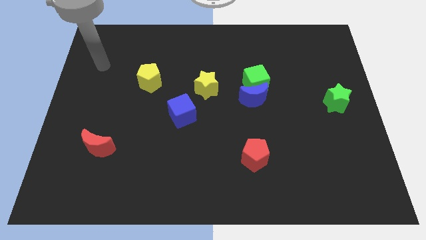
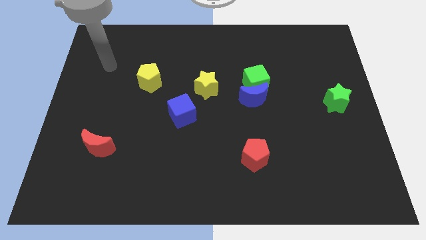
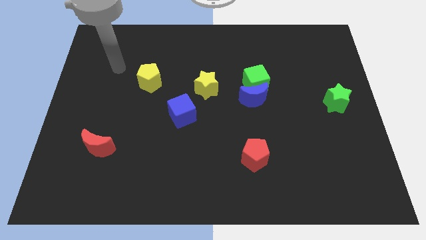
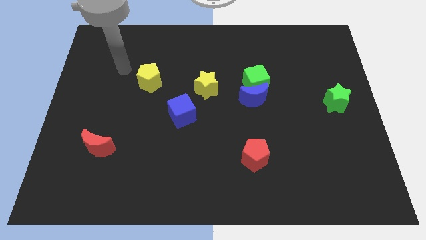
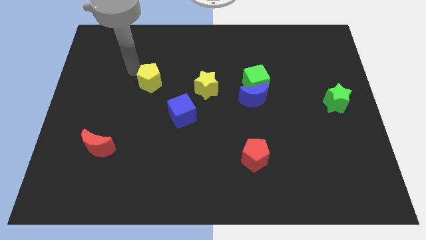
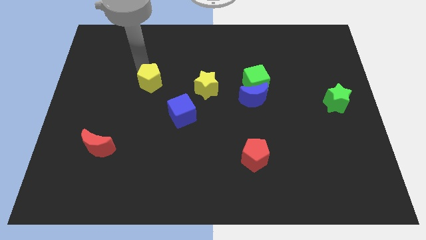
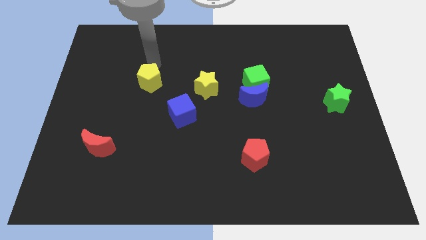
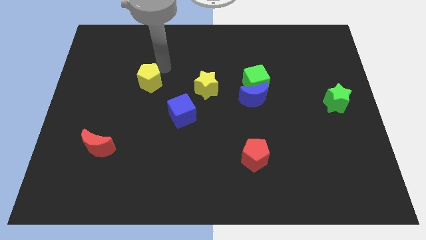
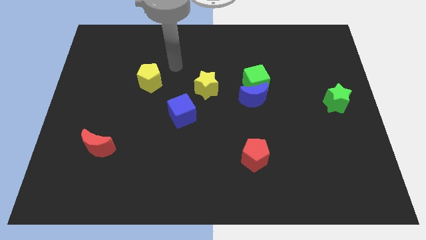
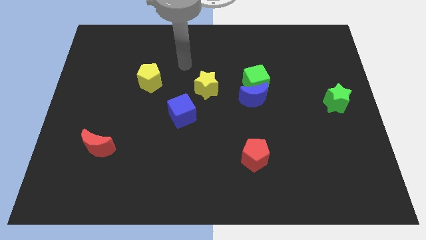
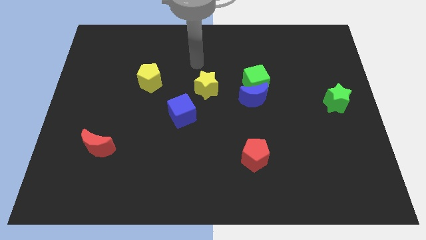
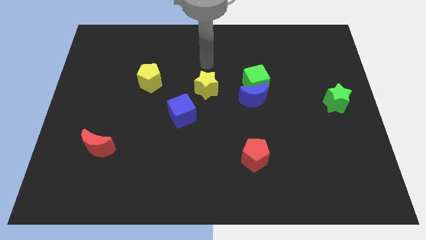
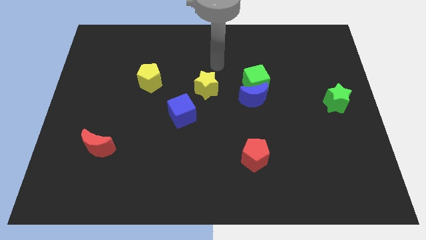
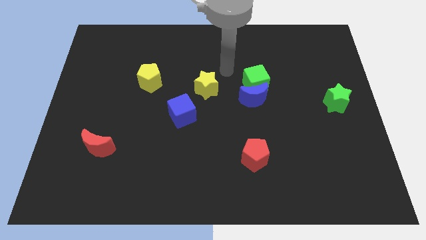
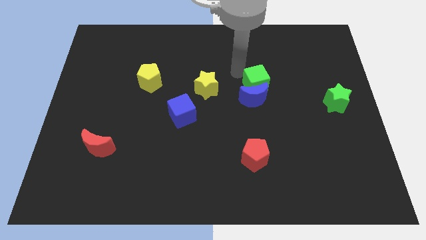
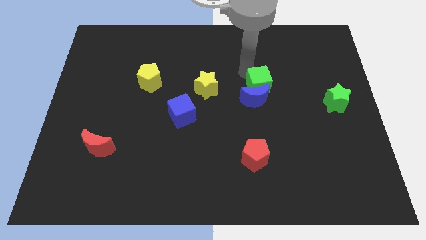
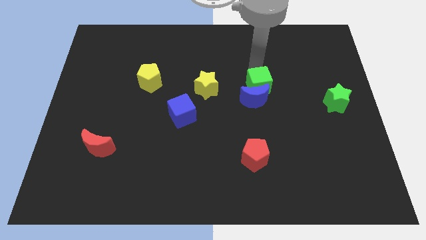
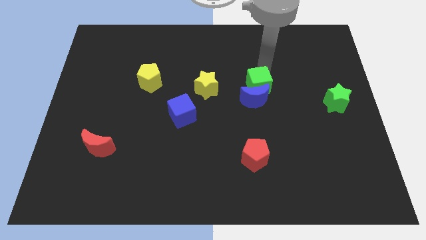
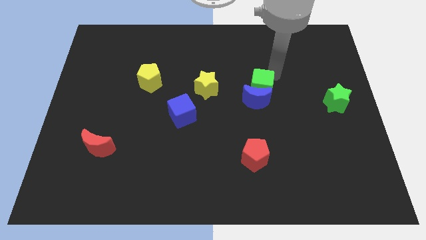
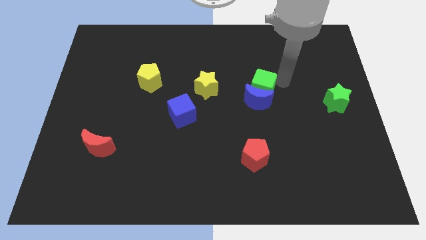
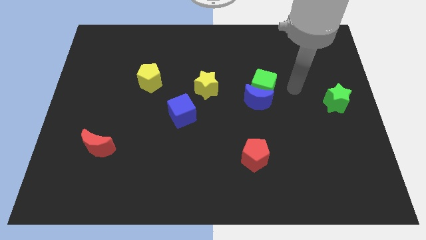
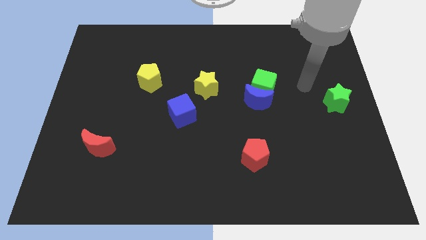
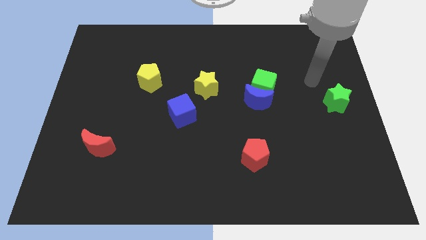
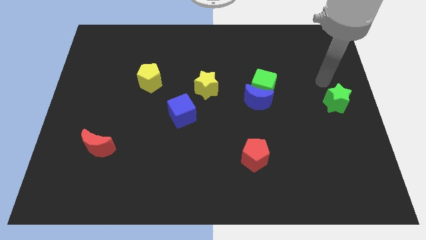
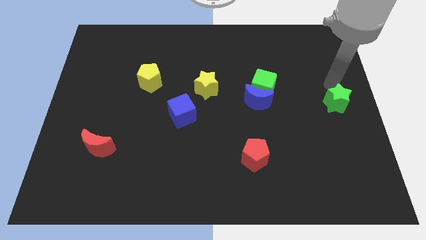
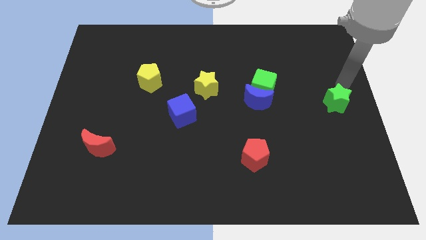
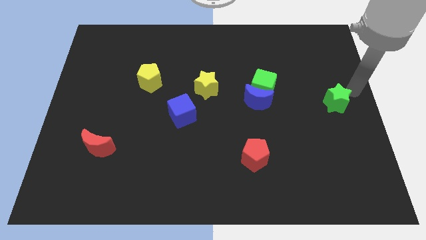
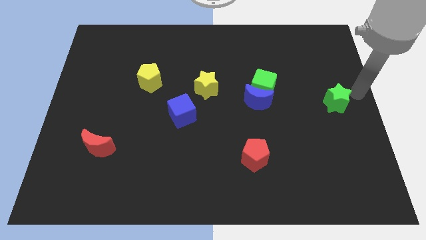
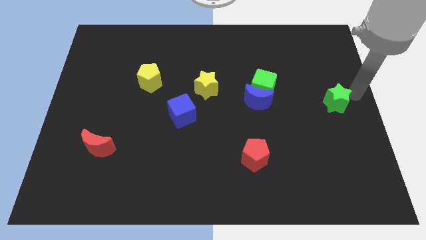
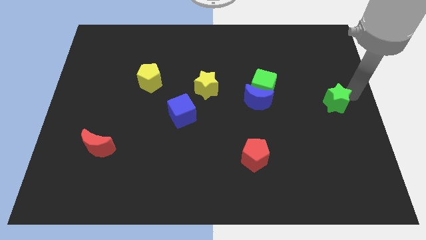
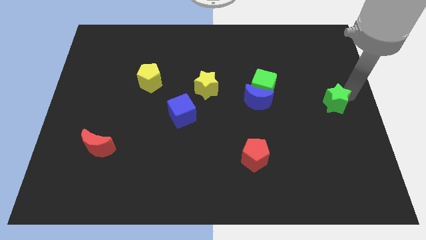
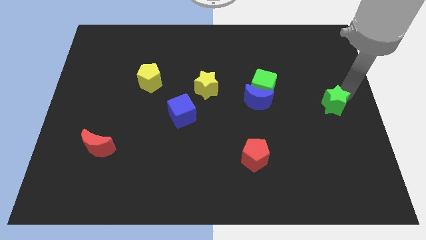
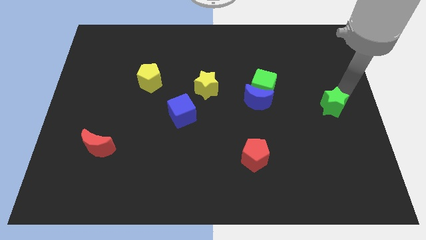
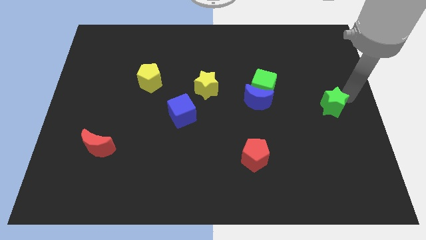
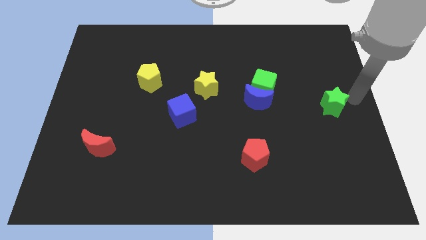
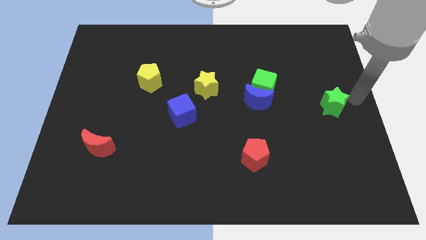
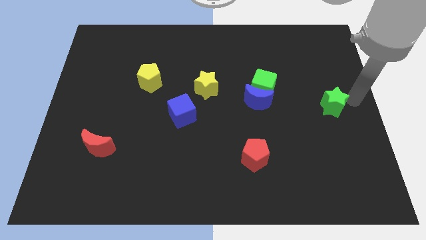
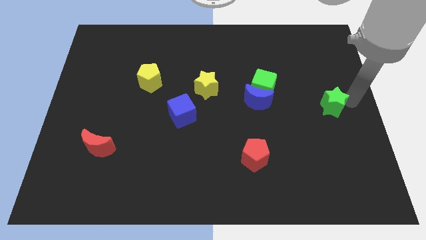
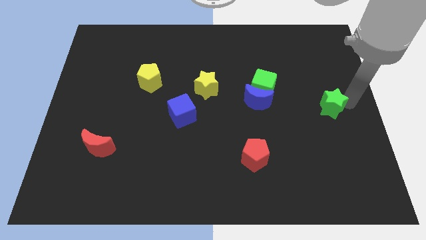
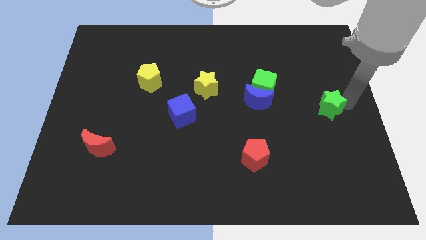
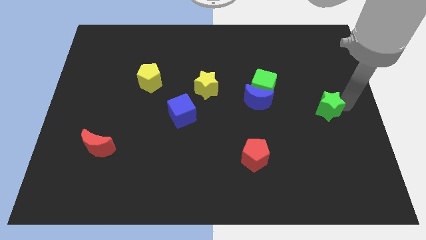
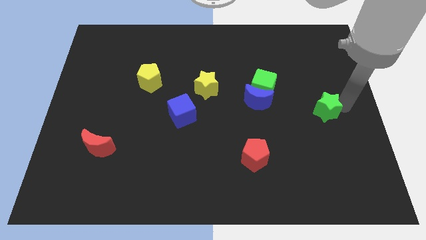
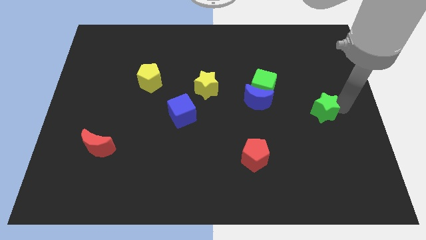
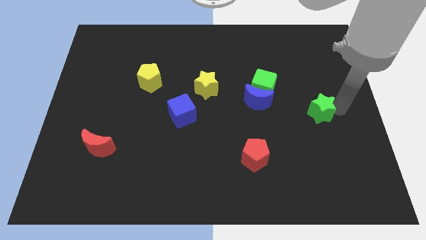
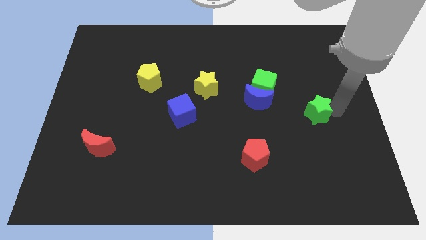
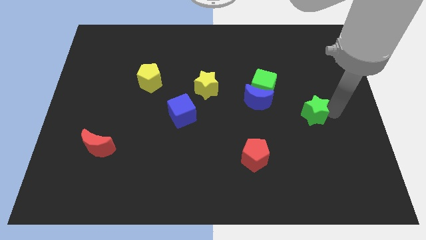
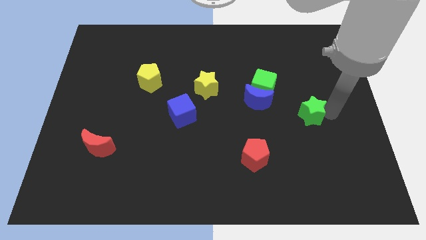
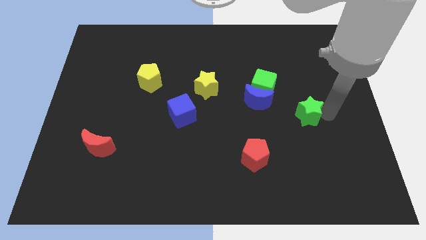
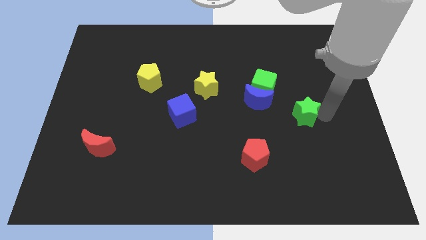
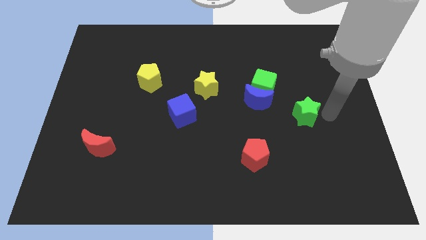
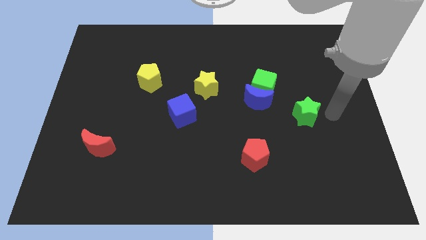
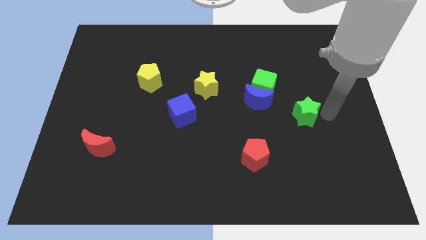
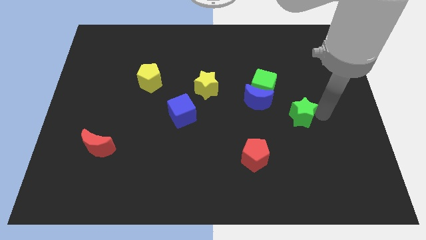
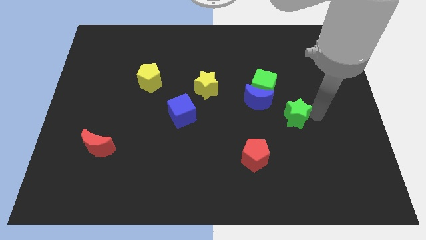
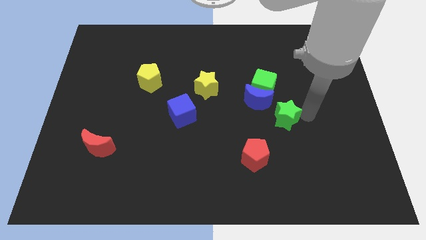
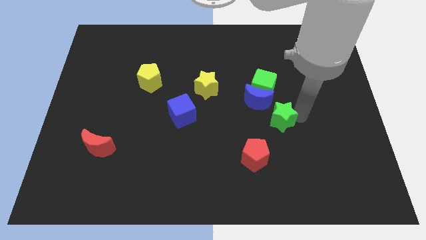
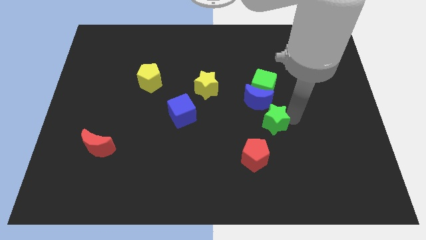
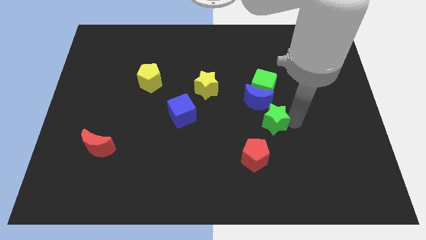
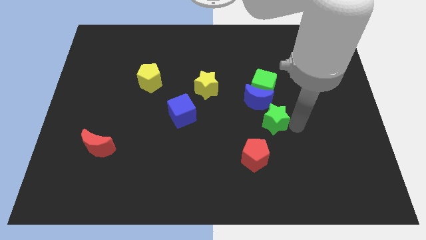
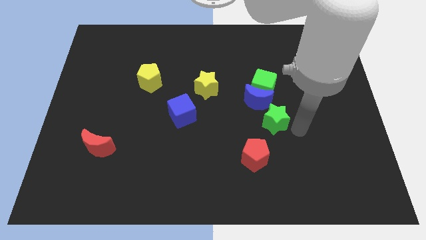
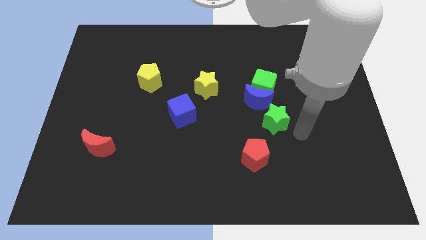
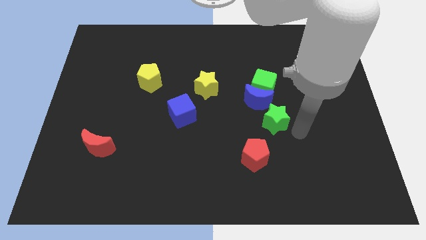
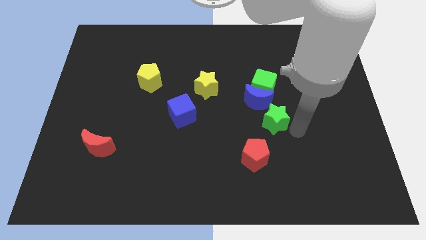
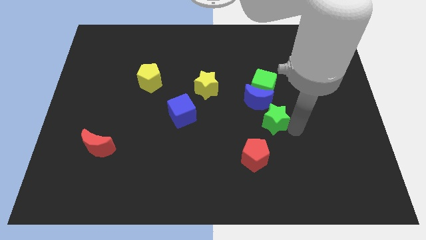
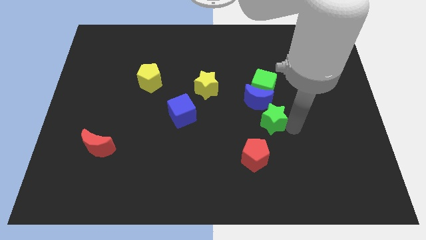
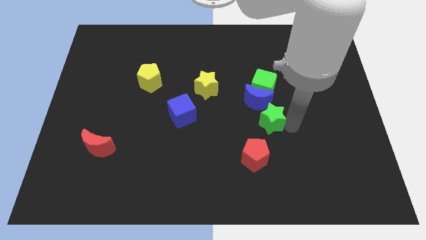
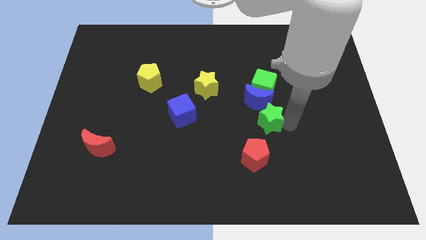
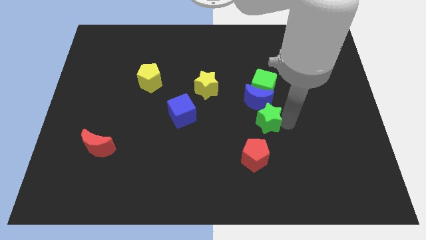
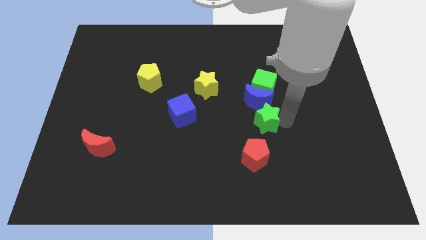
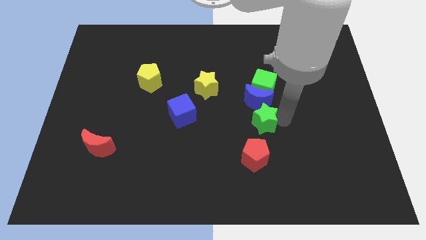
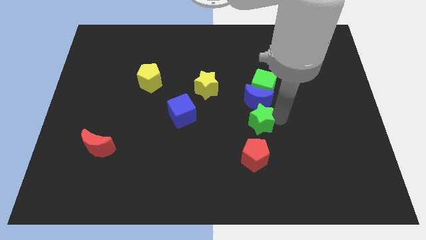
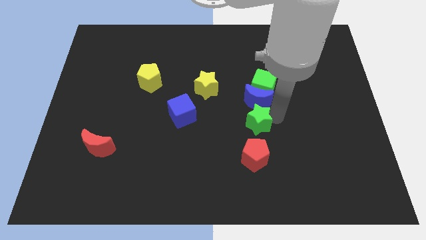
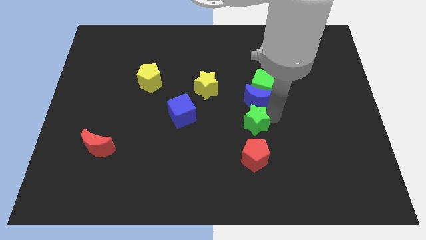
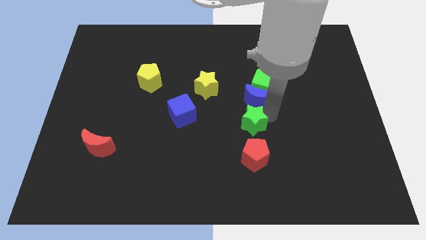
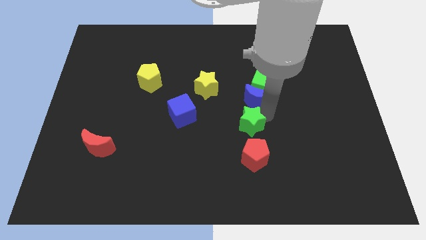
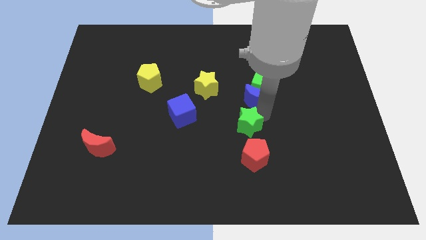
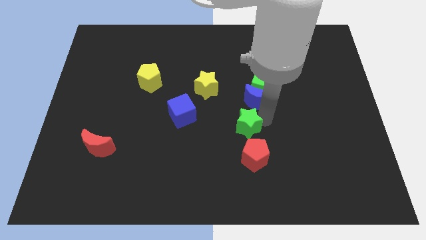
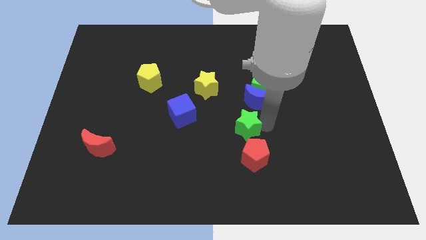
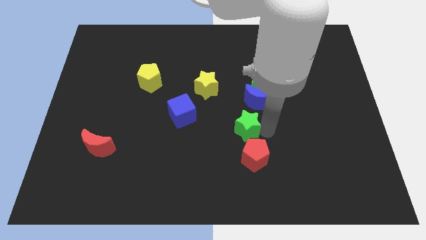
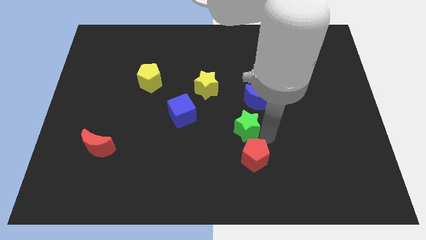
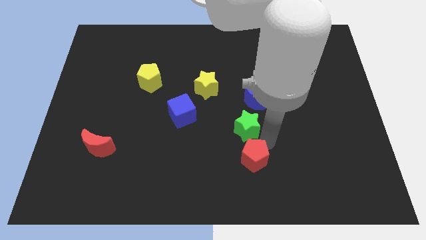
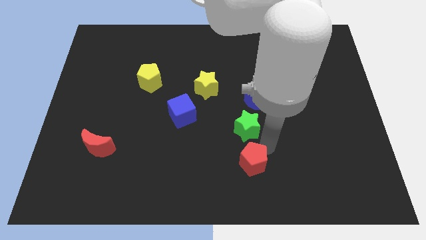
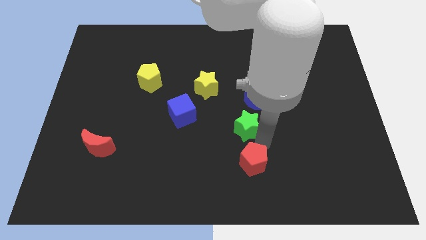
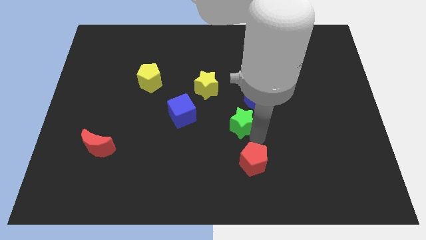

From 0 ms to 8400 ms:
move the green star to the left
